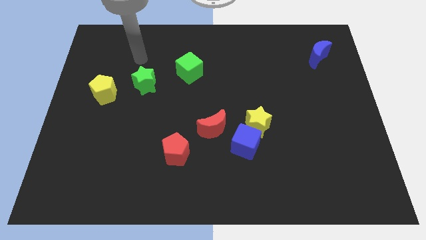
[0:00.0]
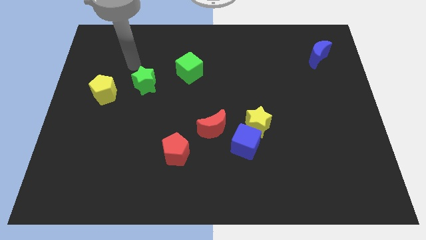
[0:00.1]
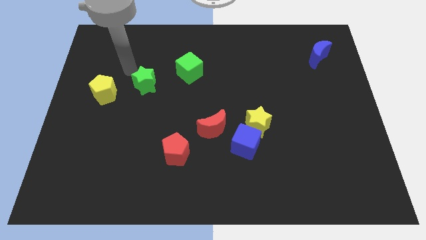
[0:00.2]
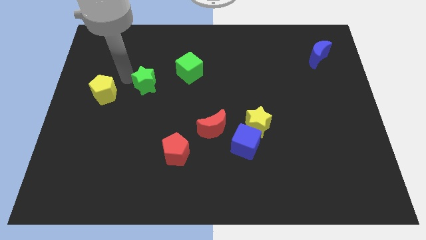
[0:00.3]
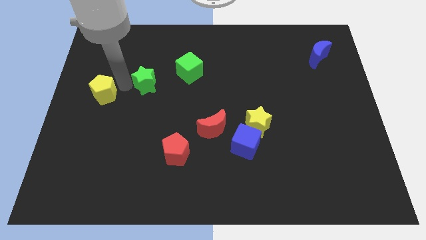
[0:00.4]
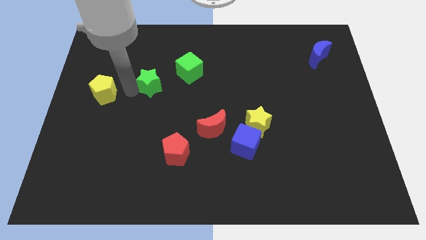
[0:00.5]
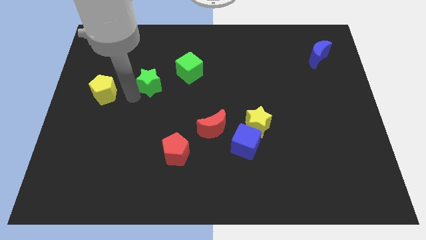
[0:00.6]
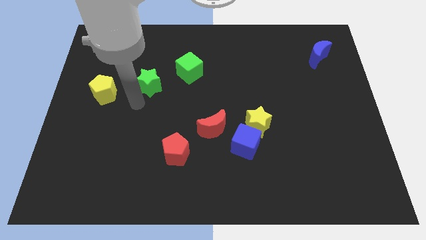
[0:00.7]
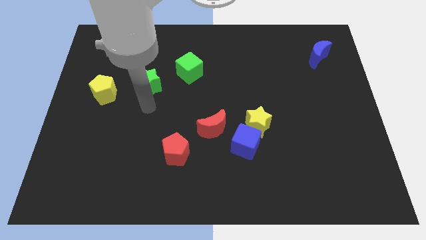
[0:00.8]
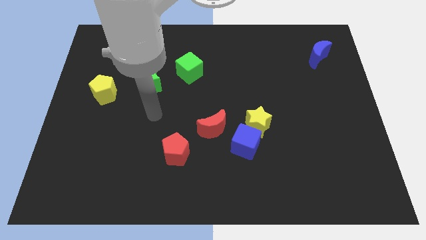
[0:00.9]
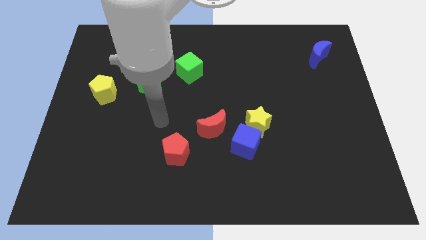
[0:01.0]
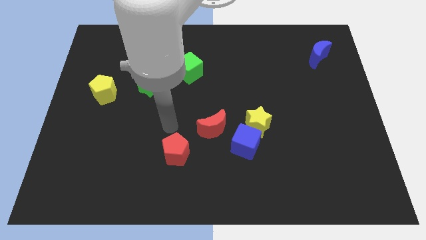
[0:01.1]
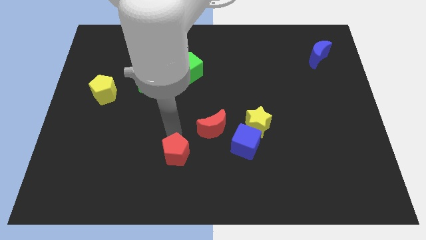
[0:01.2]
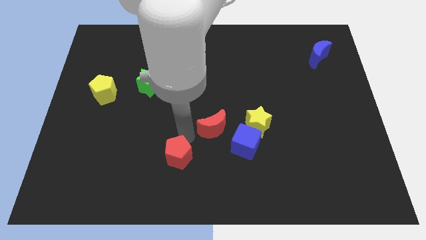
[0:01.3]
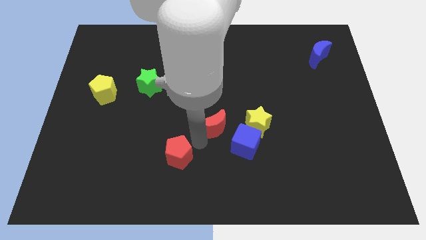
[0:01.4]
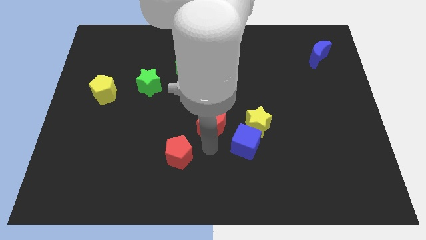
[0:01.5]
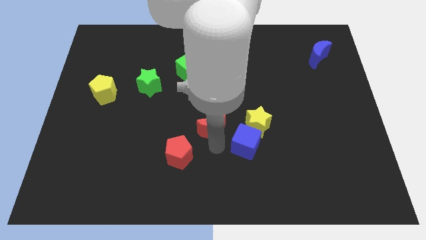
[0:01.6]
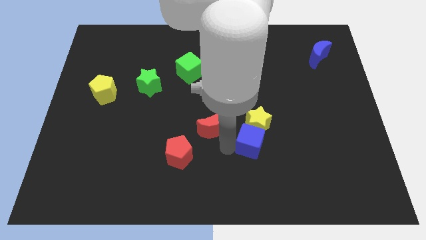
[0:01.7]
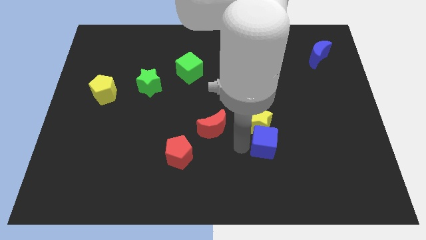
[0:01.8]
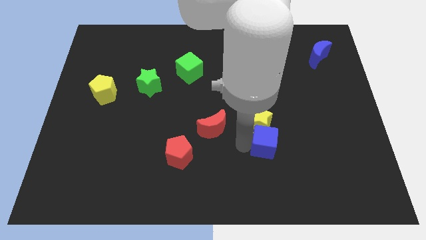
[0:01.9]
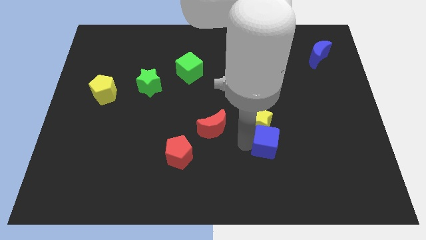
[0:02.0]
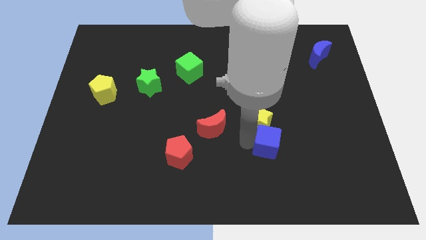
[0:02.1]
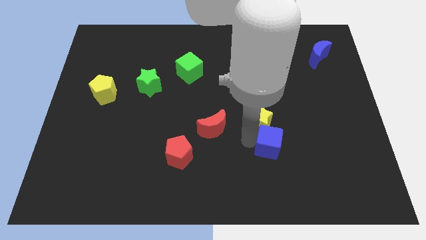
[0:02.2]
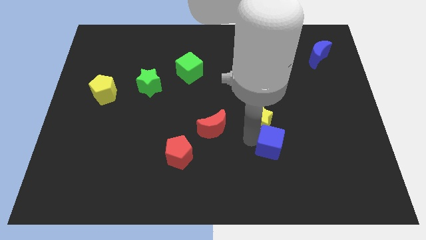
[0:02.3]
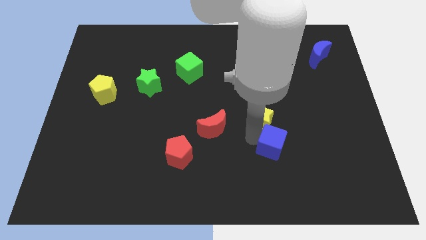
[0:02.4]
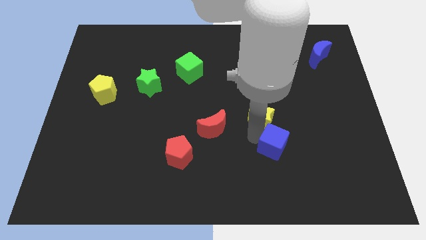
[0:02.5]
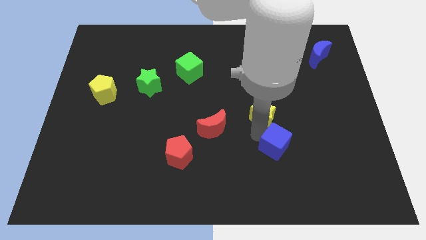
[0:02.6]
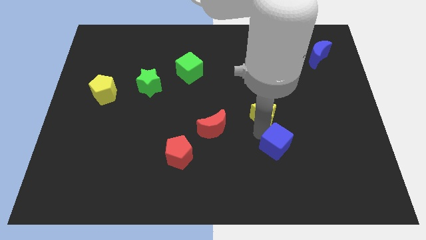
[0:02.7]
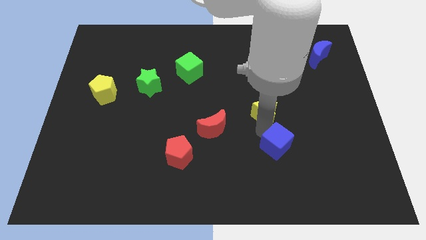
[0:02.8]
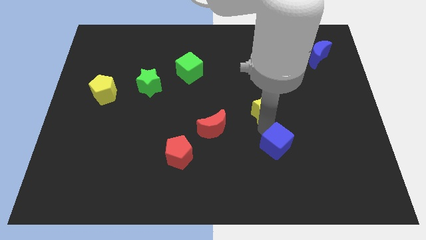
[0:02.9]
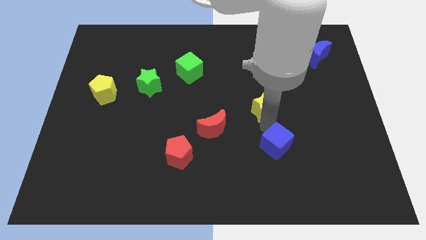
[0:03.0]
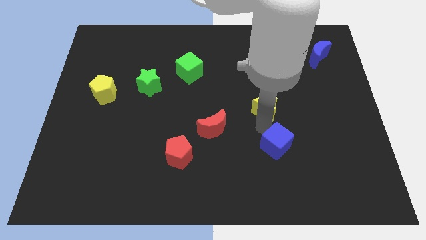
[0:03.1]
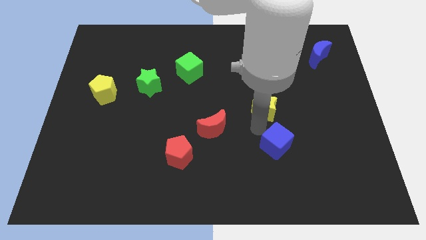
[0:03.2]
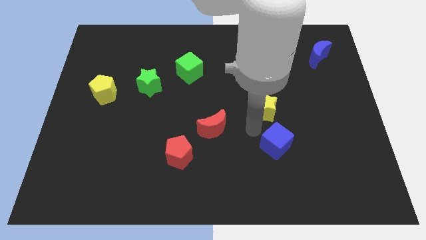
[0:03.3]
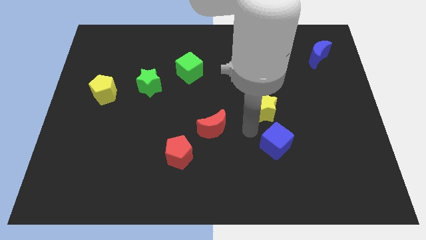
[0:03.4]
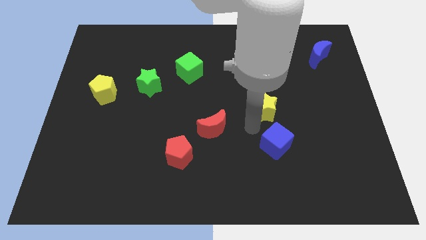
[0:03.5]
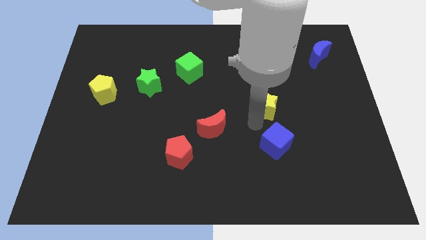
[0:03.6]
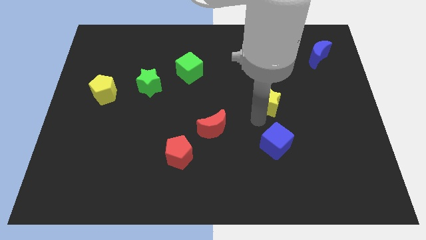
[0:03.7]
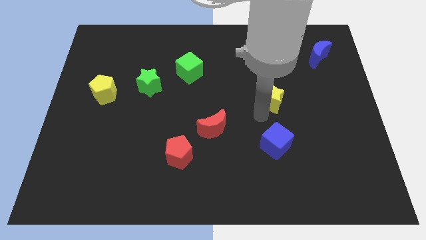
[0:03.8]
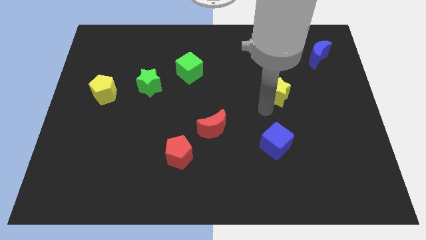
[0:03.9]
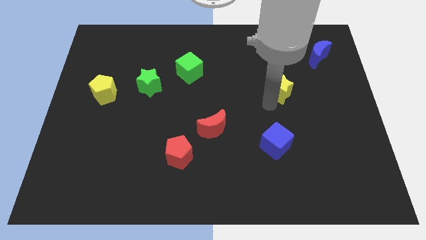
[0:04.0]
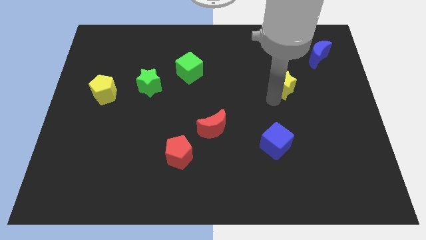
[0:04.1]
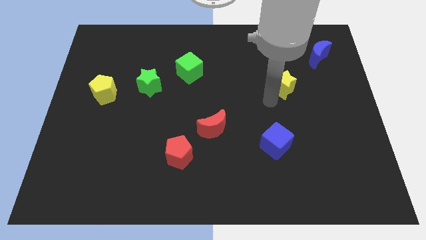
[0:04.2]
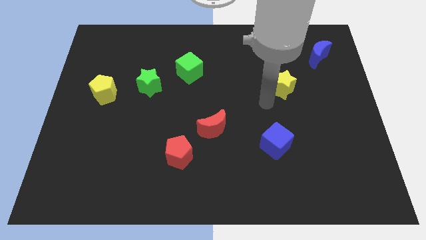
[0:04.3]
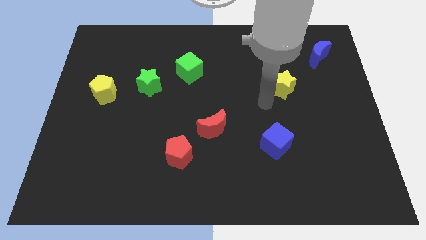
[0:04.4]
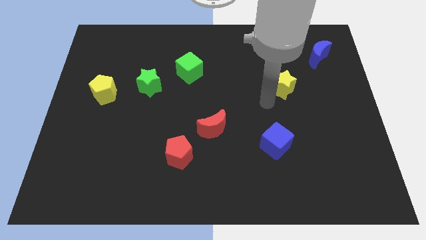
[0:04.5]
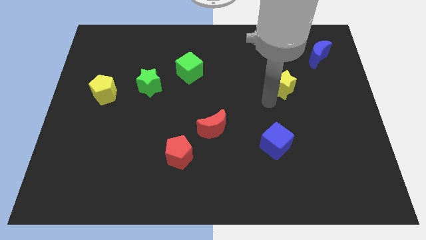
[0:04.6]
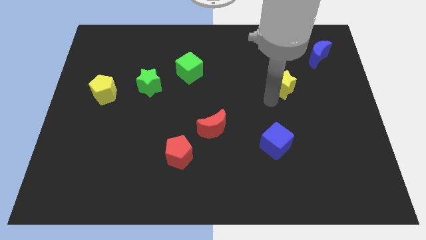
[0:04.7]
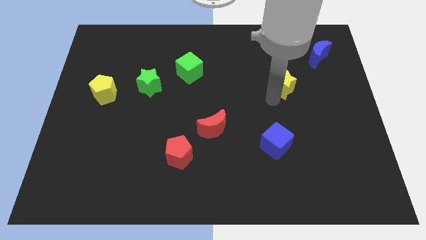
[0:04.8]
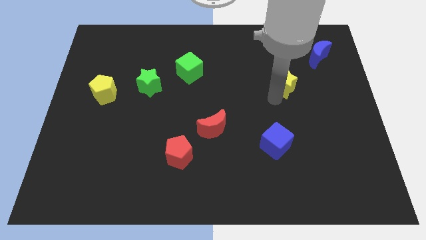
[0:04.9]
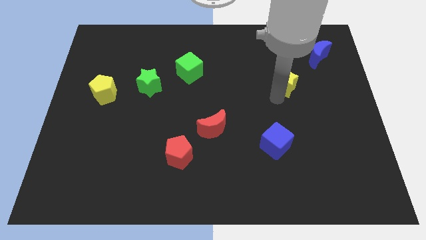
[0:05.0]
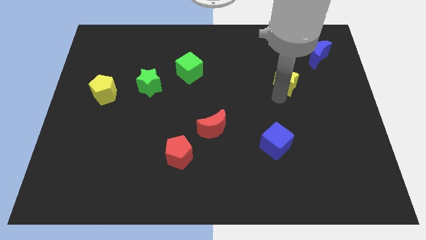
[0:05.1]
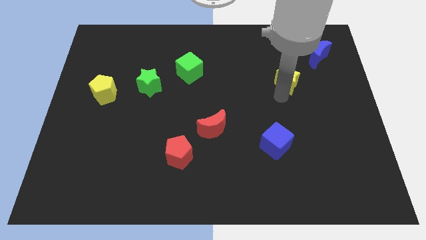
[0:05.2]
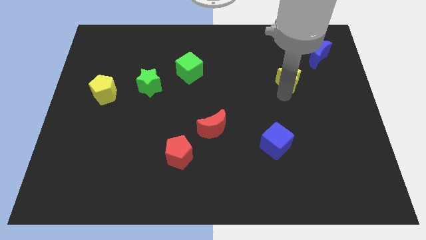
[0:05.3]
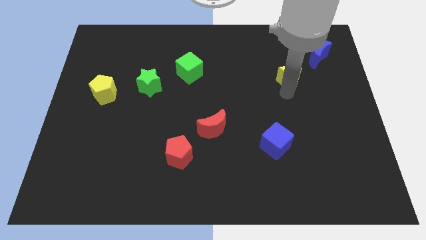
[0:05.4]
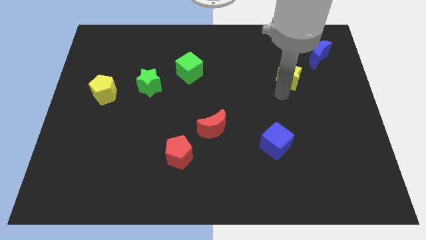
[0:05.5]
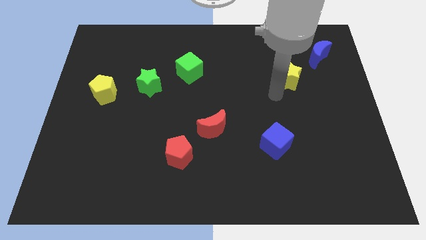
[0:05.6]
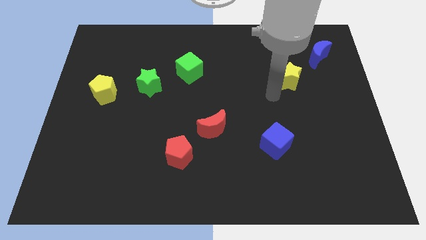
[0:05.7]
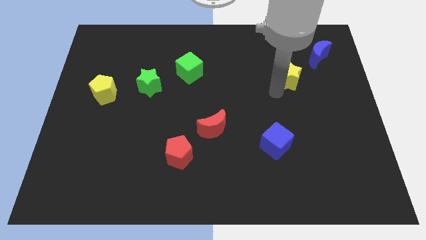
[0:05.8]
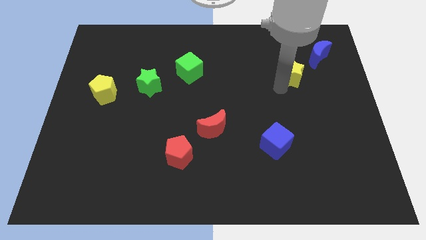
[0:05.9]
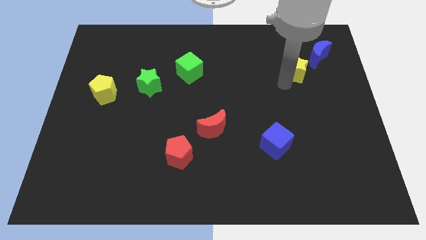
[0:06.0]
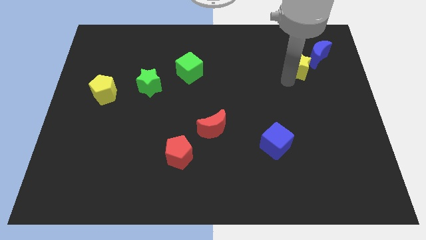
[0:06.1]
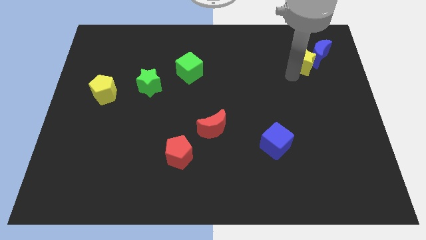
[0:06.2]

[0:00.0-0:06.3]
put the yellow star close to the blue moon

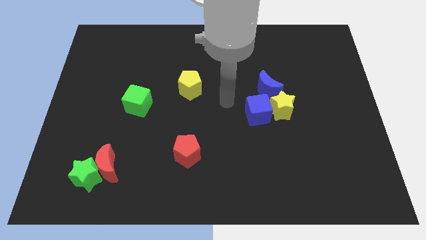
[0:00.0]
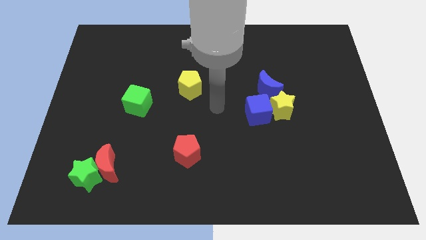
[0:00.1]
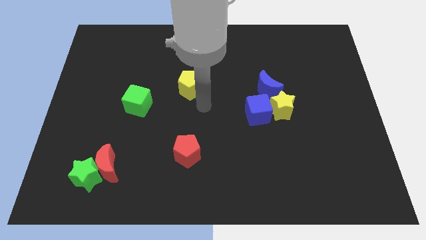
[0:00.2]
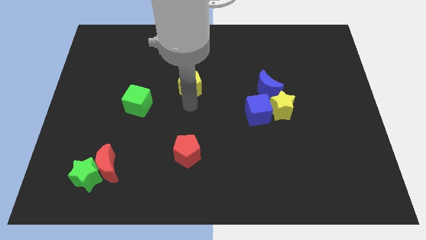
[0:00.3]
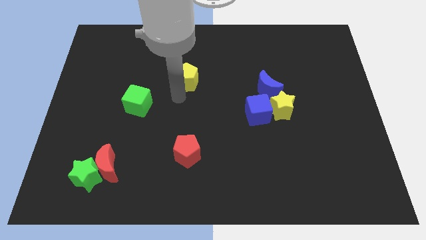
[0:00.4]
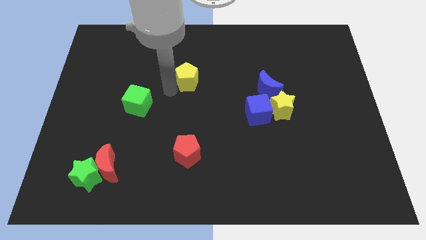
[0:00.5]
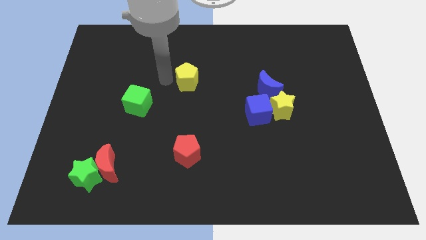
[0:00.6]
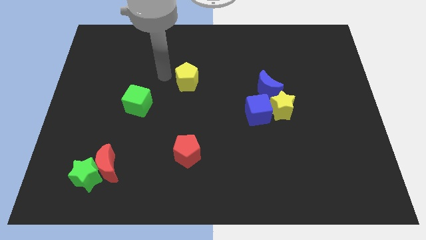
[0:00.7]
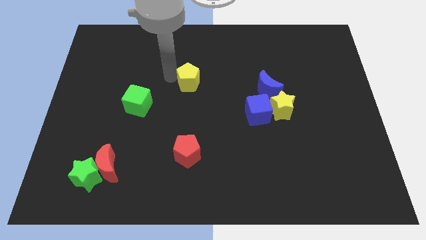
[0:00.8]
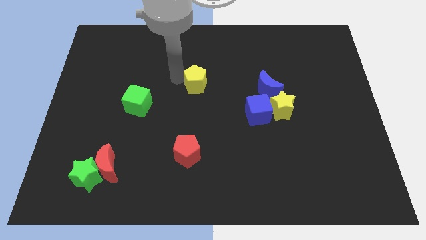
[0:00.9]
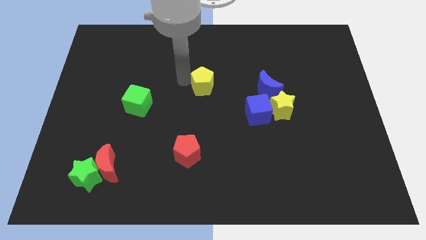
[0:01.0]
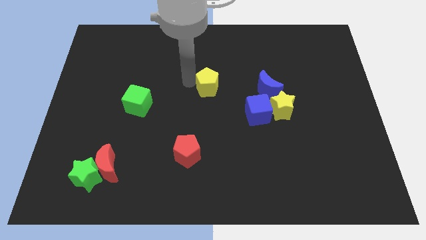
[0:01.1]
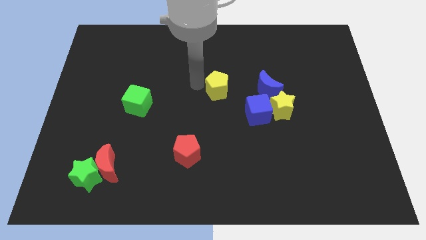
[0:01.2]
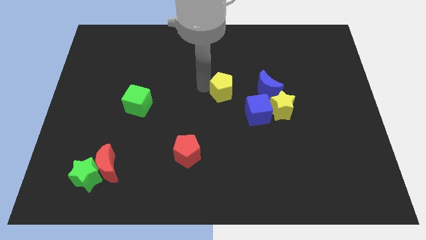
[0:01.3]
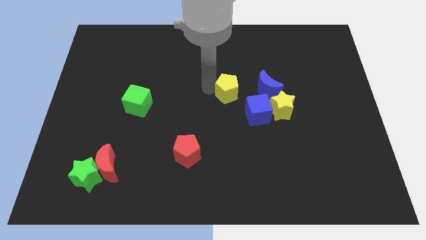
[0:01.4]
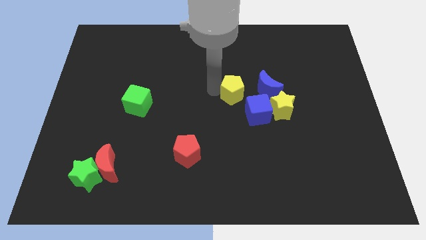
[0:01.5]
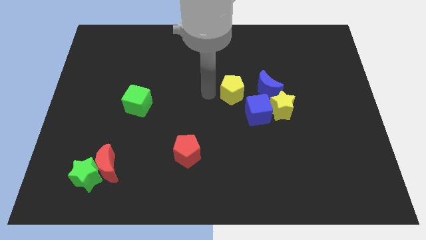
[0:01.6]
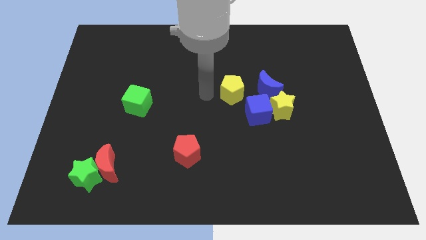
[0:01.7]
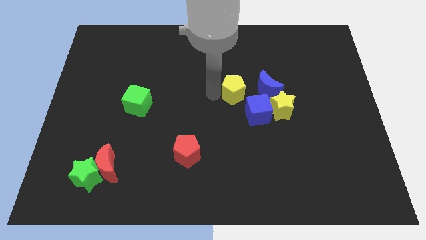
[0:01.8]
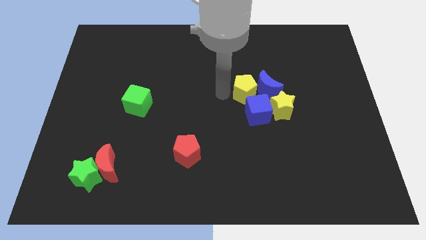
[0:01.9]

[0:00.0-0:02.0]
put the yellow pentagon next to the blue moon
